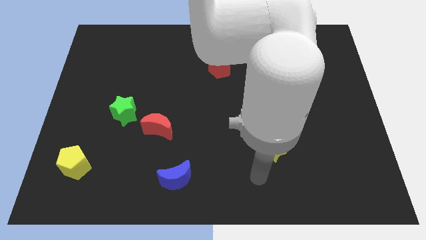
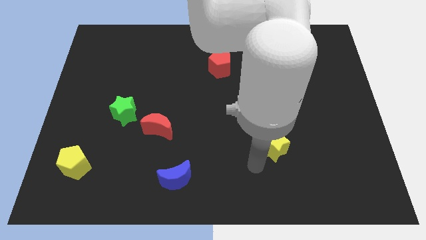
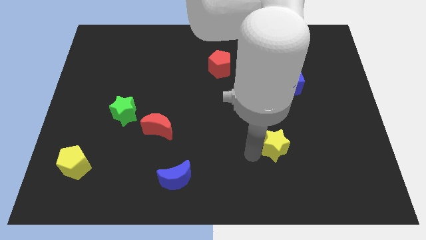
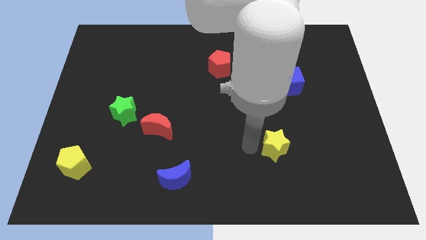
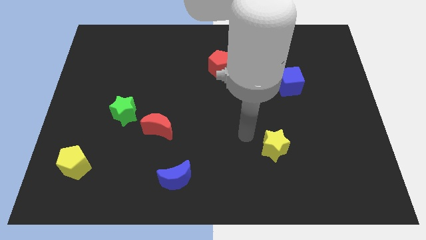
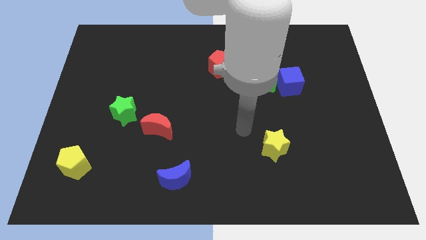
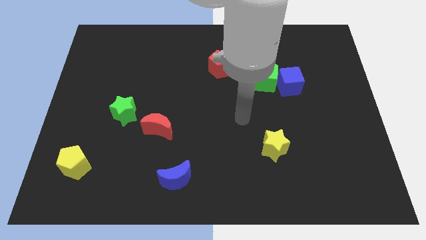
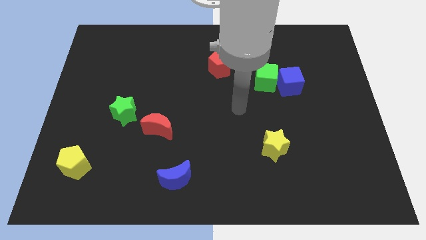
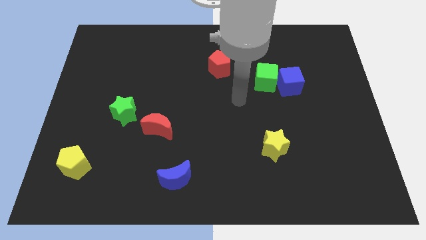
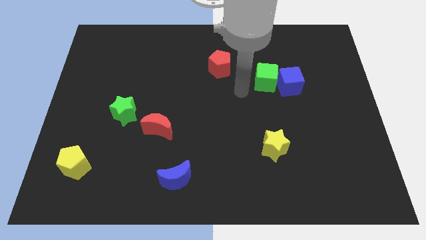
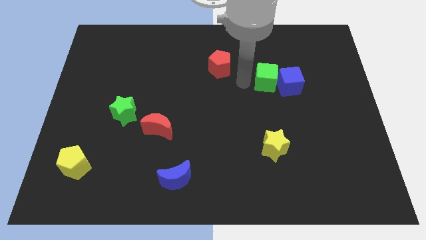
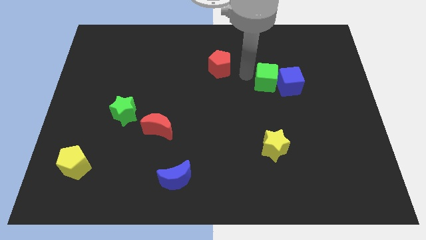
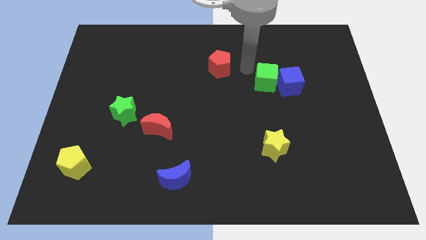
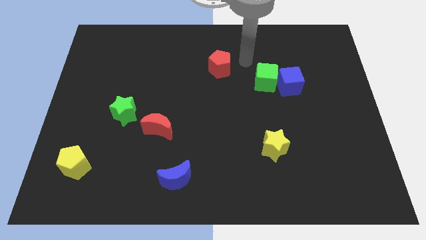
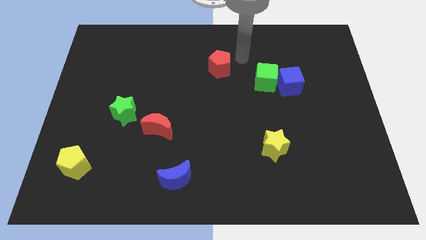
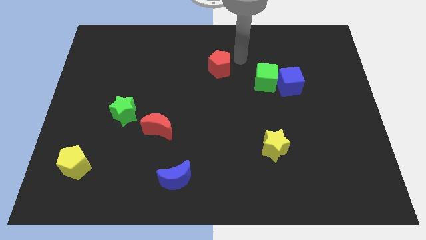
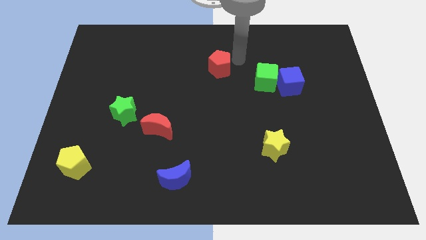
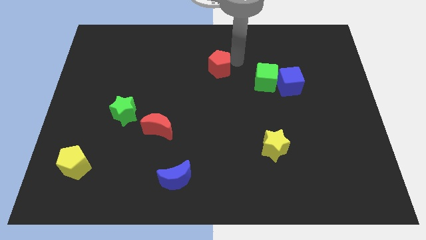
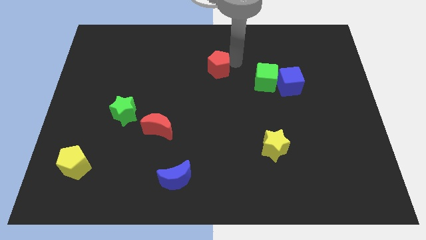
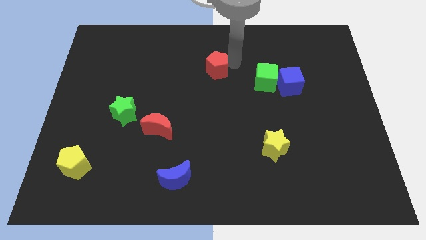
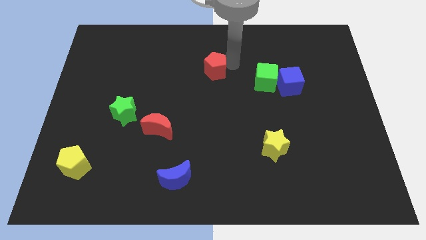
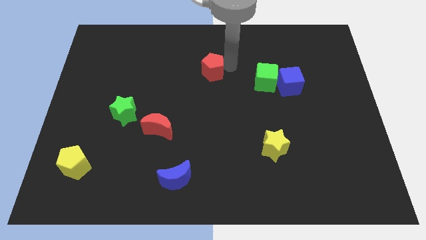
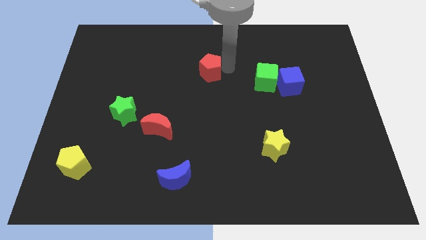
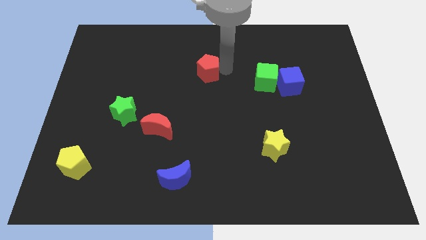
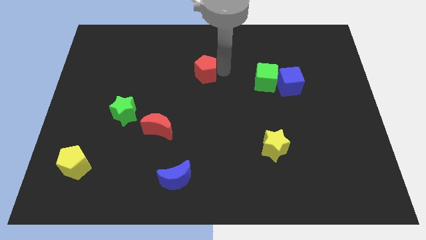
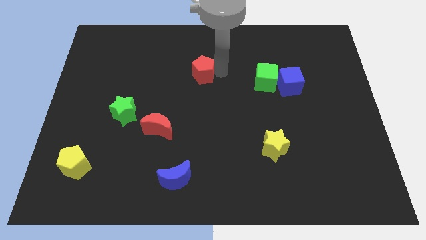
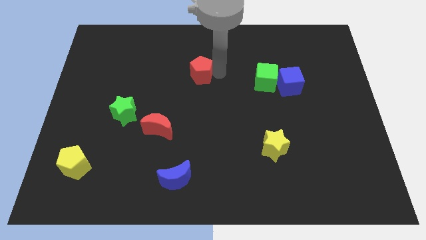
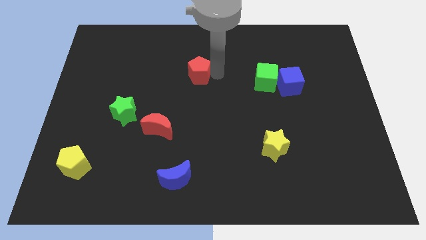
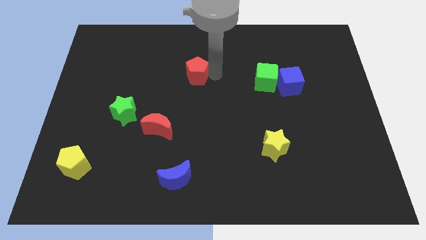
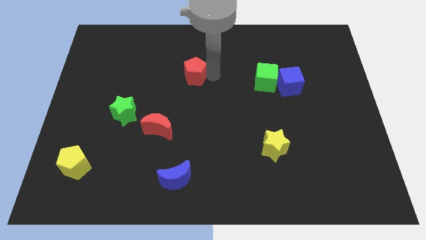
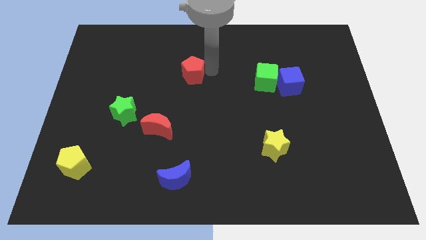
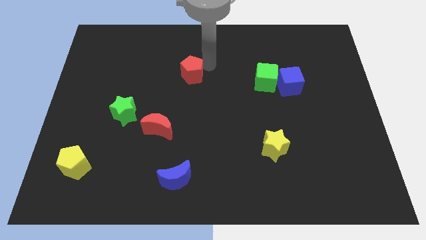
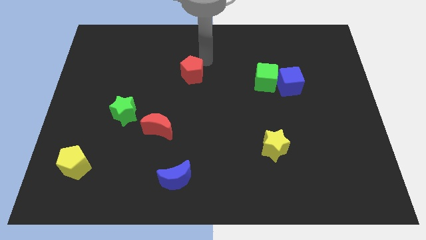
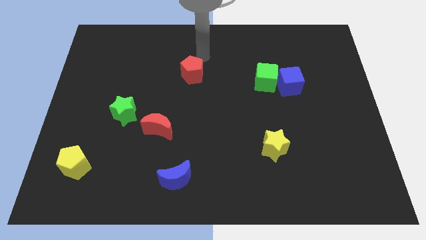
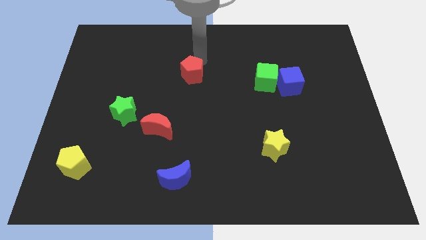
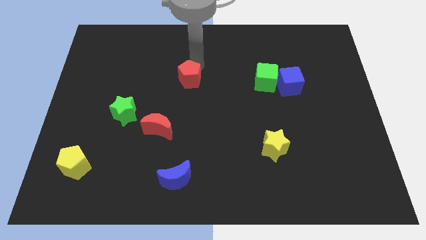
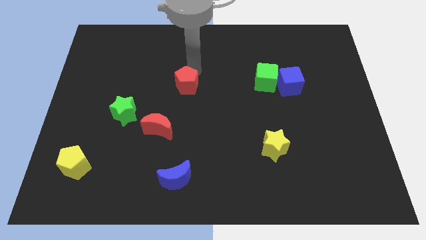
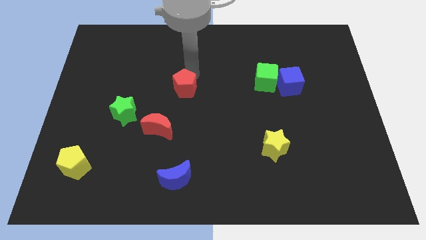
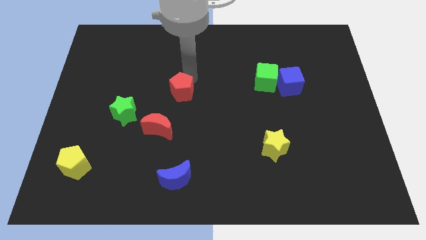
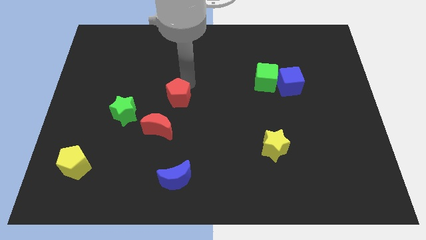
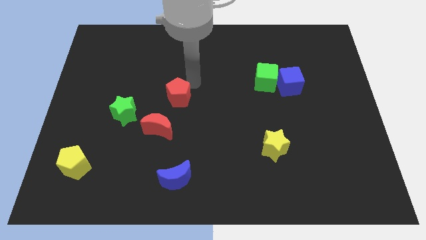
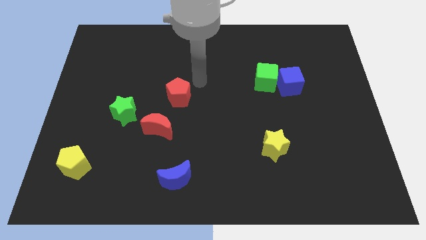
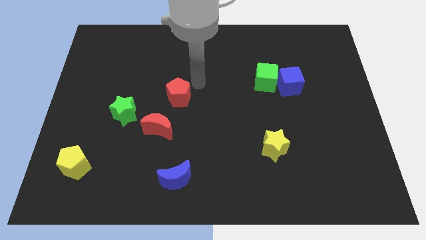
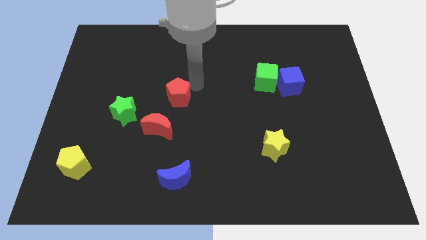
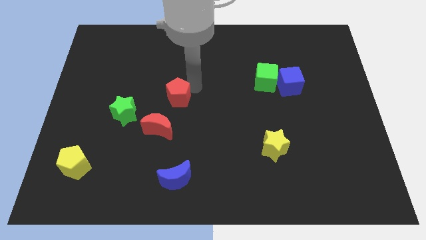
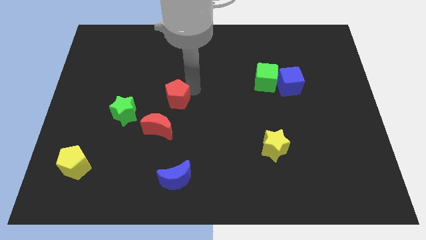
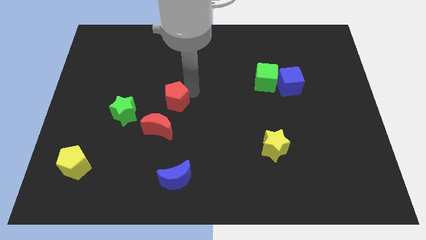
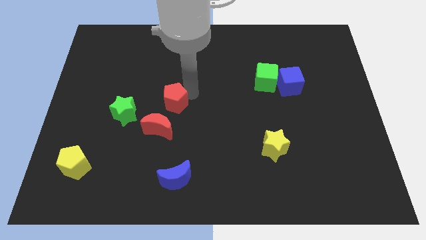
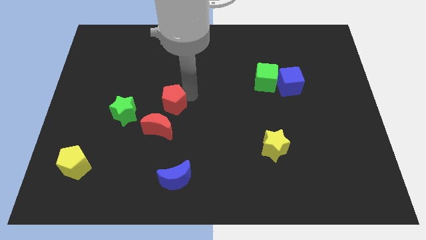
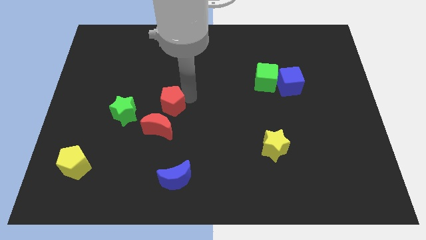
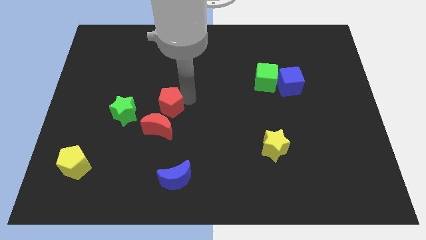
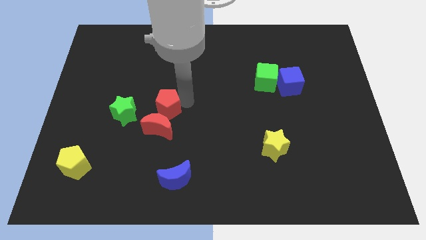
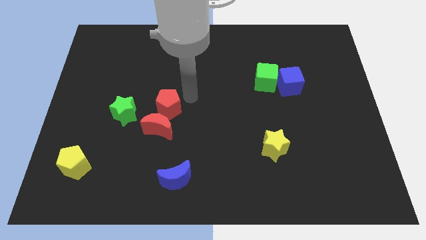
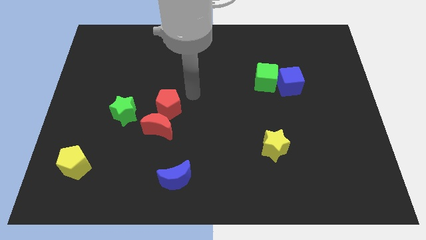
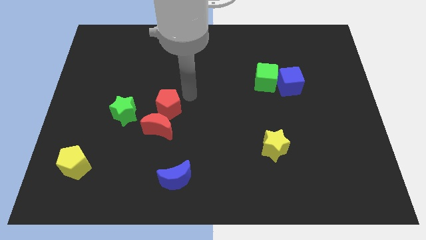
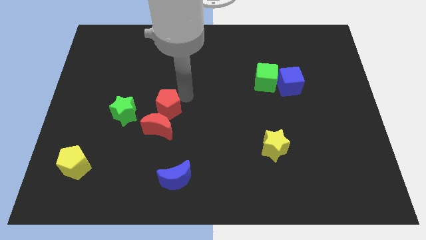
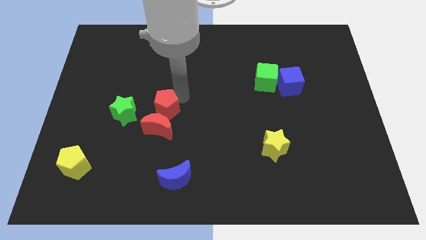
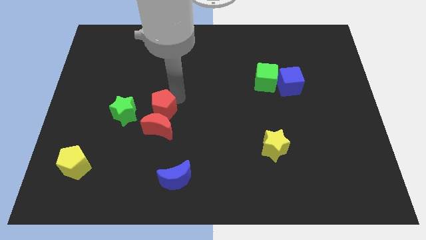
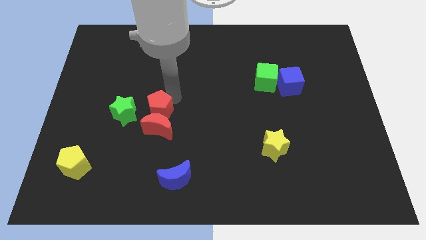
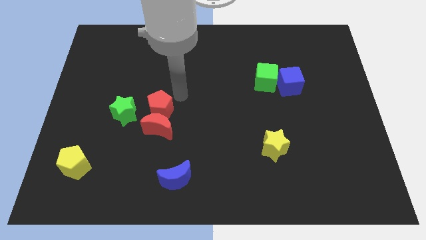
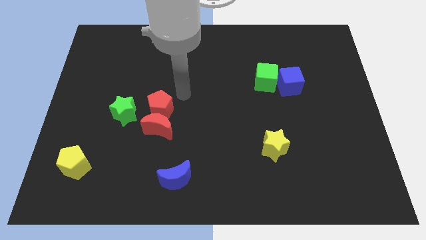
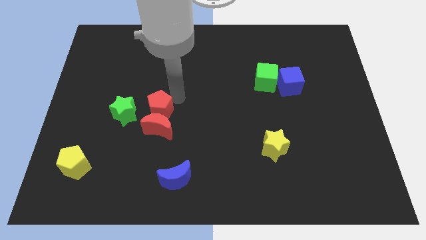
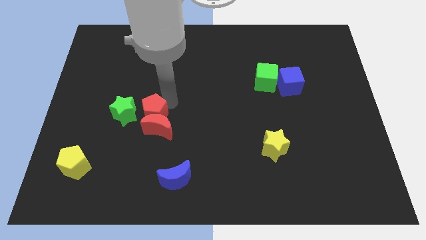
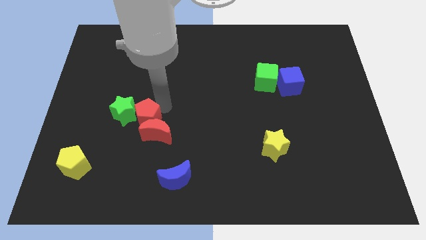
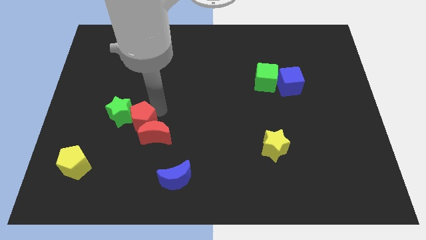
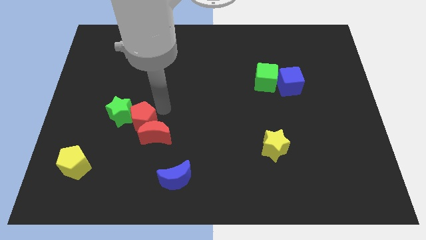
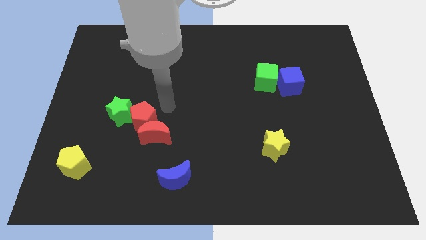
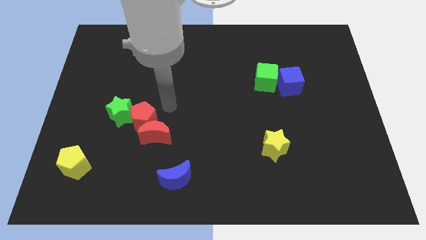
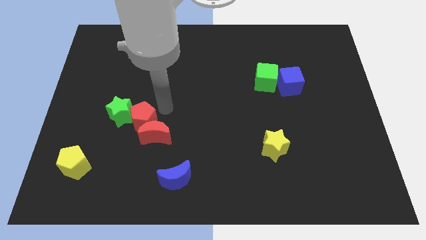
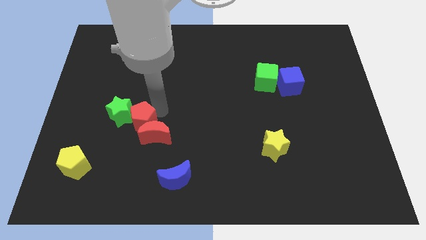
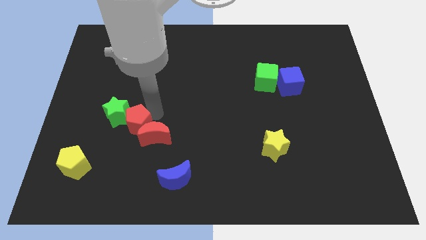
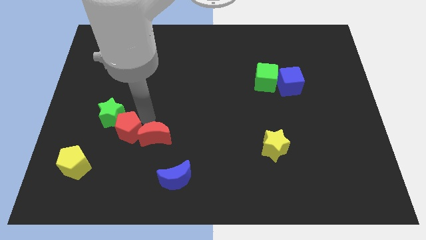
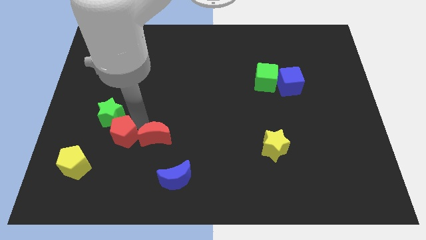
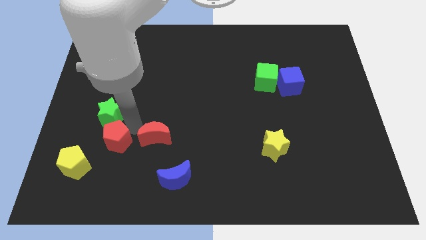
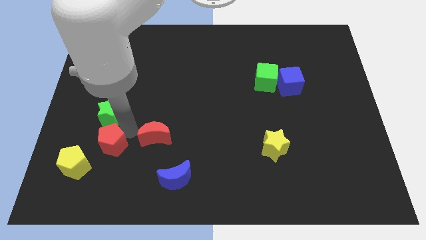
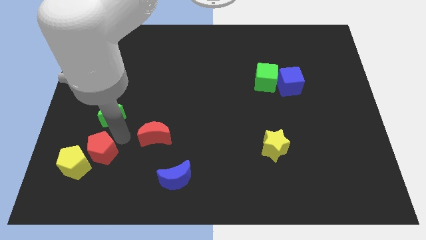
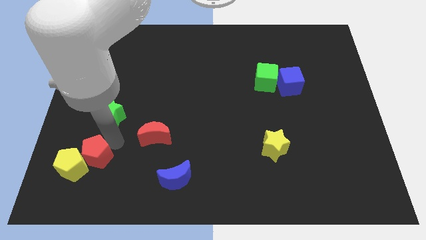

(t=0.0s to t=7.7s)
push the red pentagon to the yellow pentagon

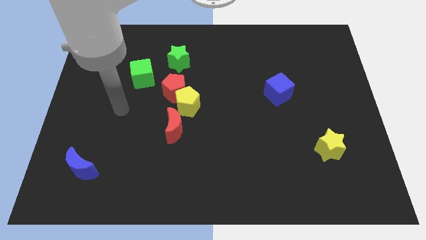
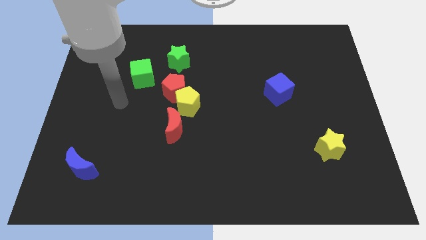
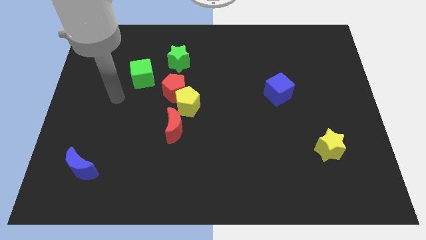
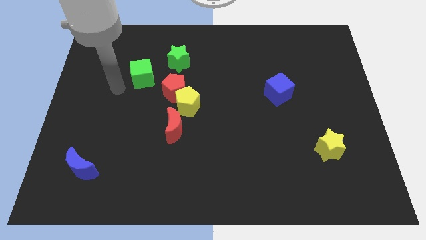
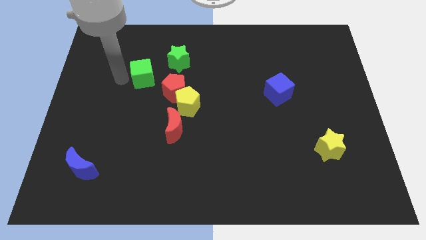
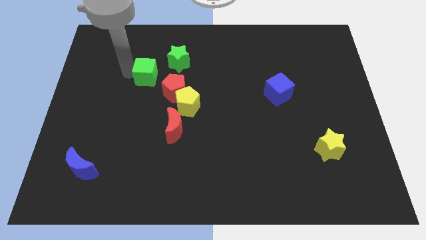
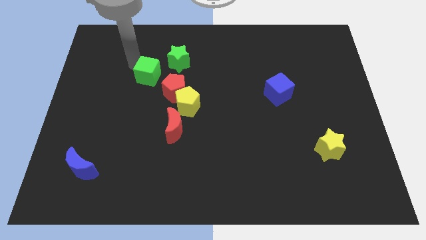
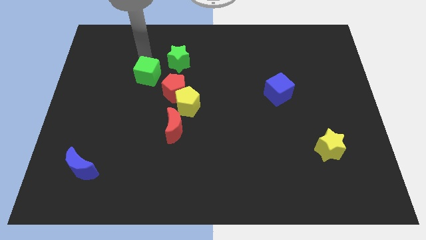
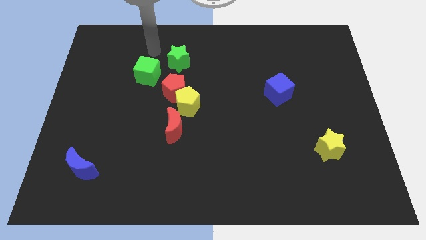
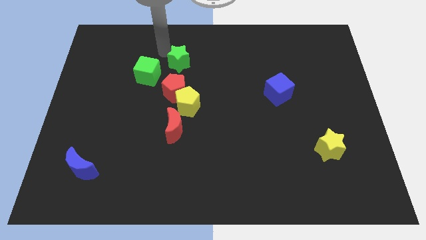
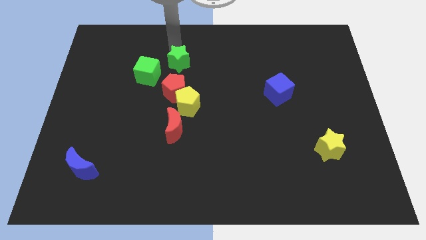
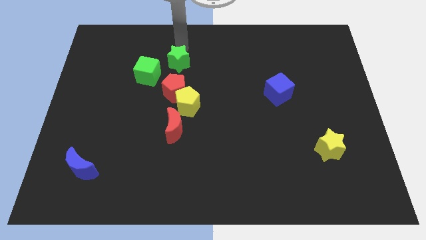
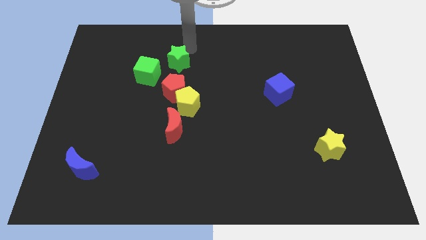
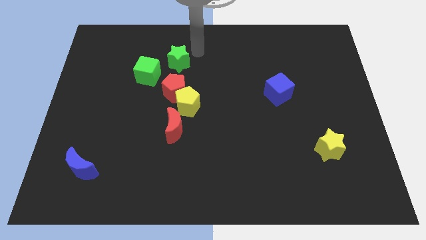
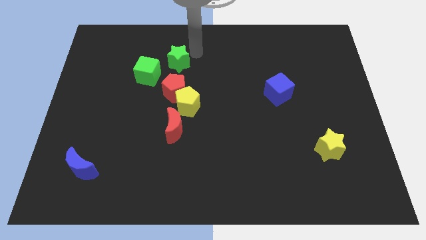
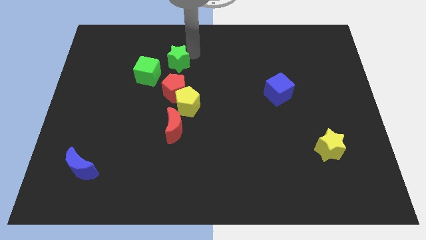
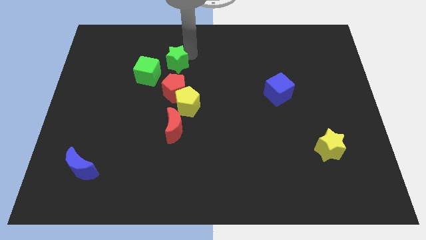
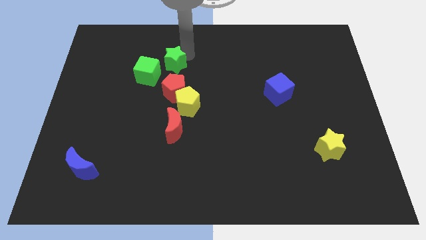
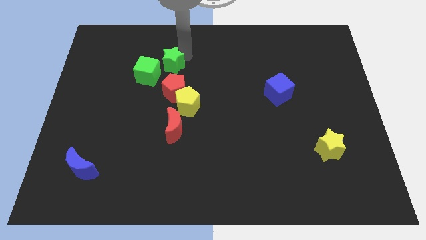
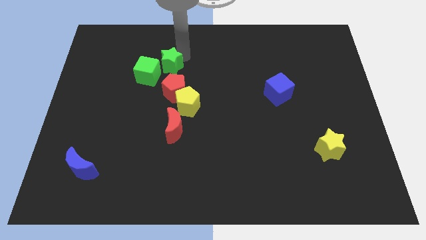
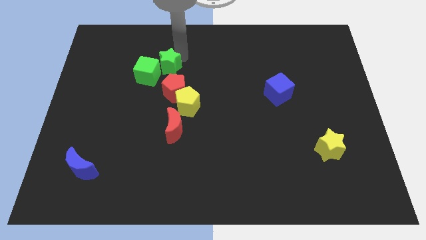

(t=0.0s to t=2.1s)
move the green star next to the green cube
